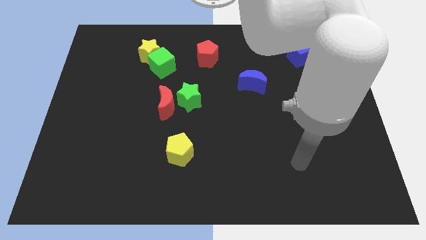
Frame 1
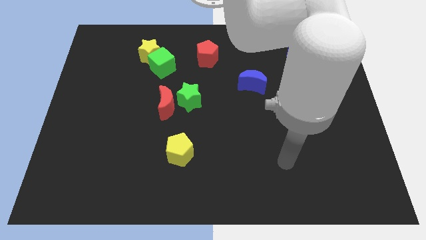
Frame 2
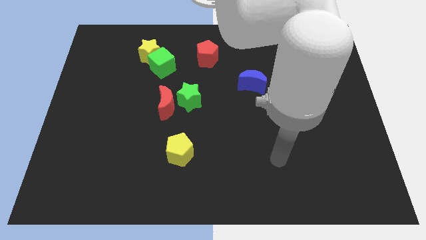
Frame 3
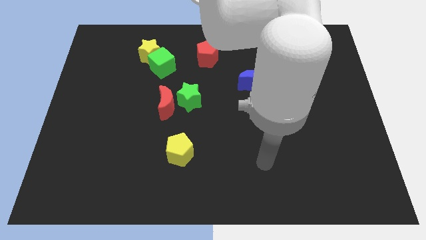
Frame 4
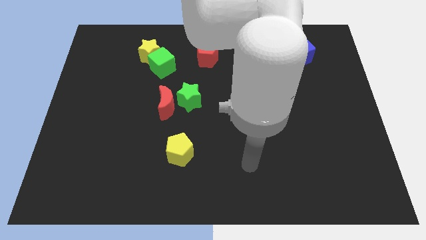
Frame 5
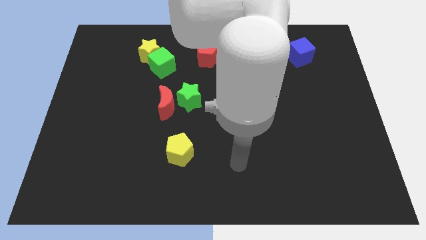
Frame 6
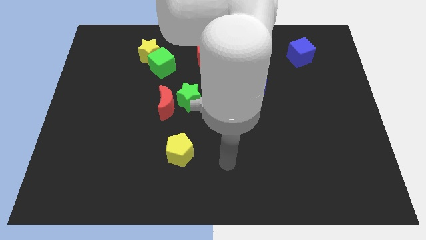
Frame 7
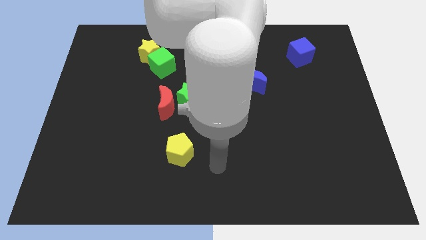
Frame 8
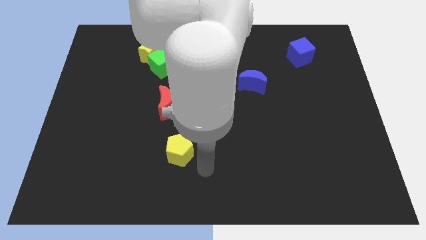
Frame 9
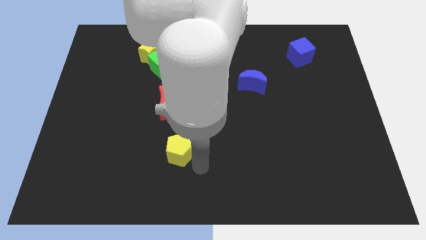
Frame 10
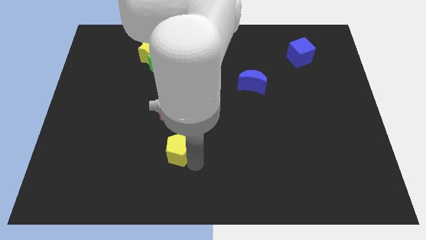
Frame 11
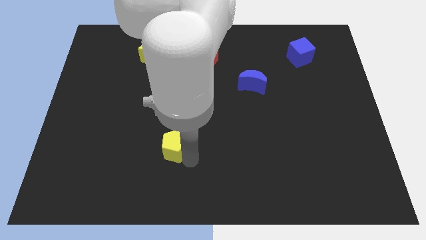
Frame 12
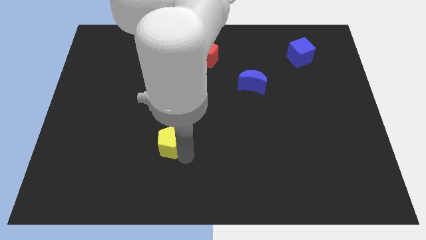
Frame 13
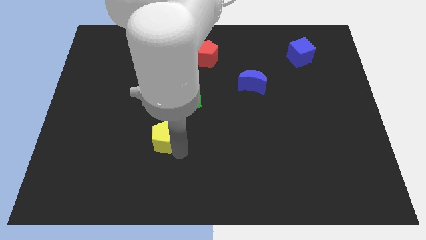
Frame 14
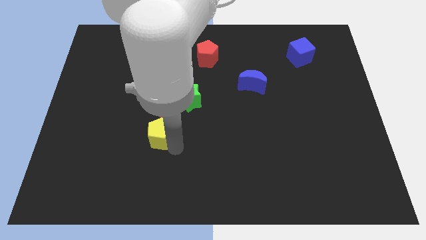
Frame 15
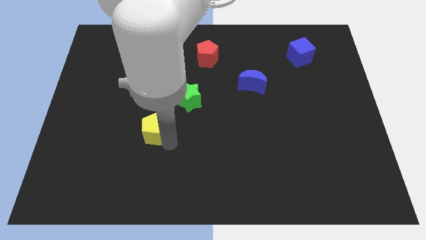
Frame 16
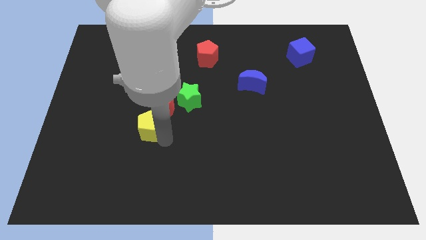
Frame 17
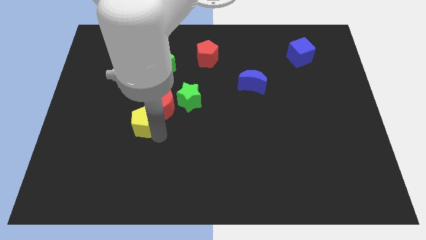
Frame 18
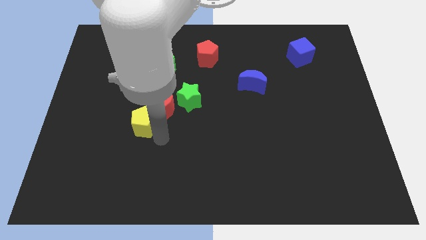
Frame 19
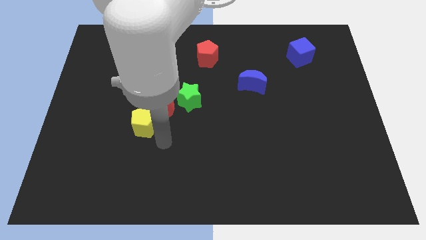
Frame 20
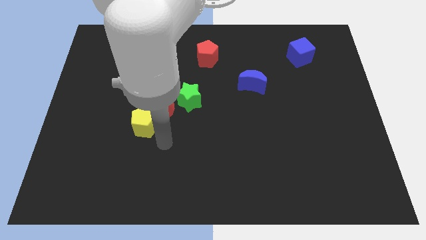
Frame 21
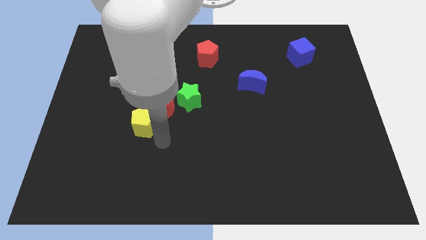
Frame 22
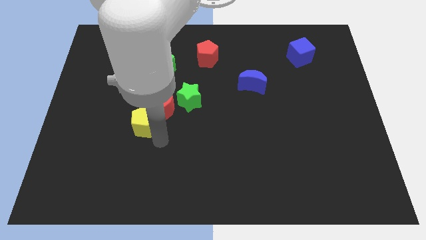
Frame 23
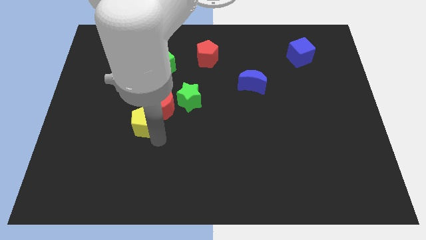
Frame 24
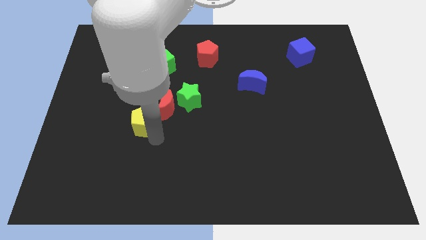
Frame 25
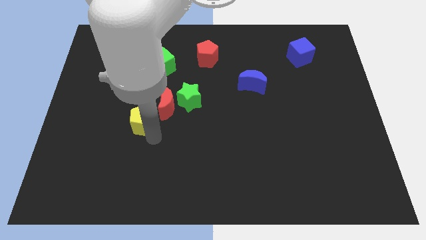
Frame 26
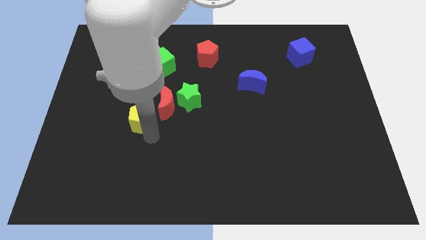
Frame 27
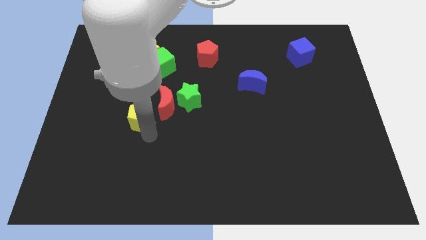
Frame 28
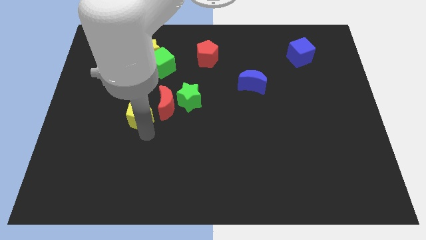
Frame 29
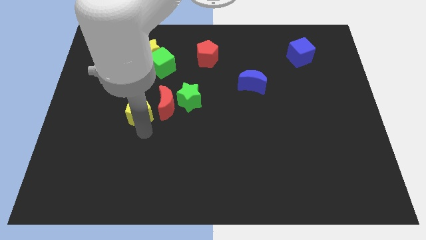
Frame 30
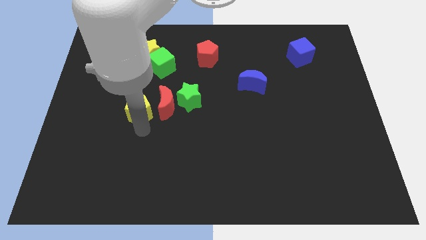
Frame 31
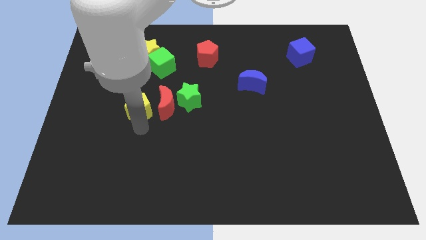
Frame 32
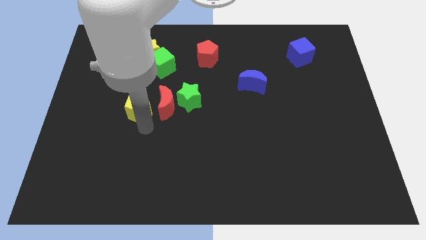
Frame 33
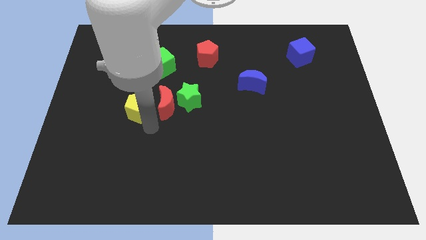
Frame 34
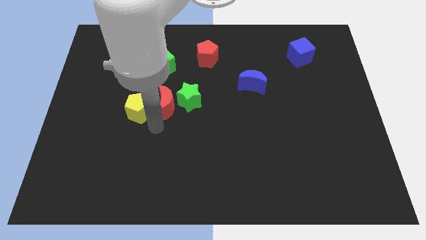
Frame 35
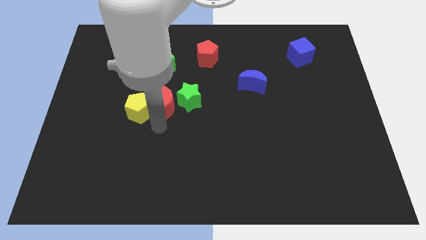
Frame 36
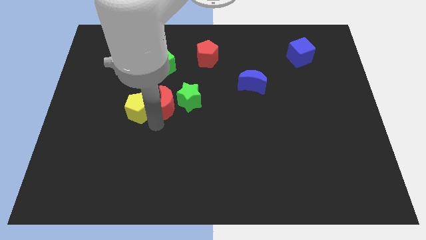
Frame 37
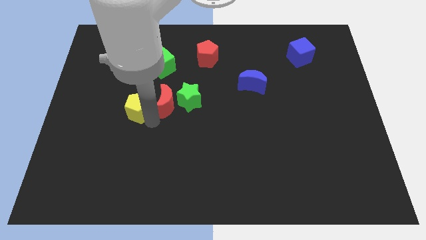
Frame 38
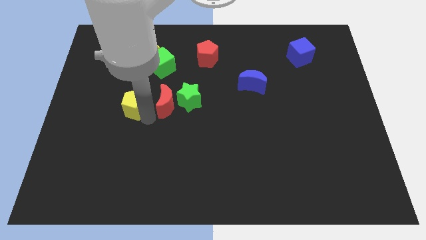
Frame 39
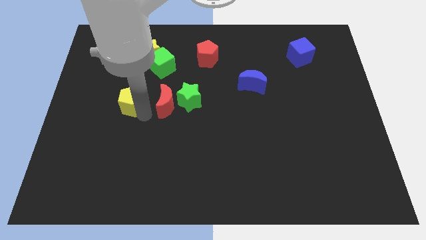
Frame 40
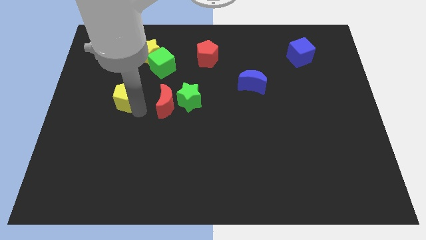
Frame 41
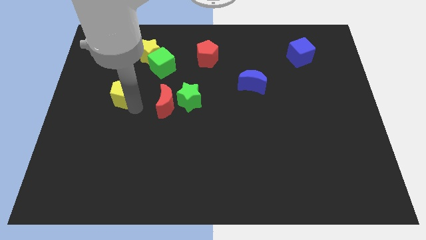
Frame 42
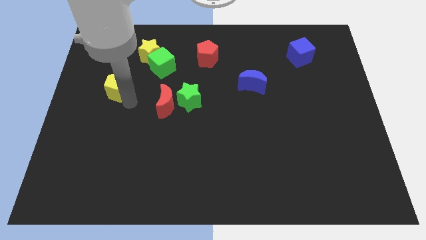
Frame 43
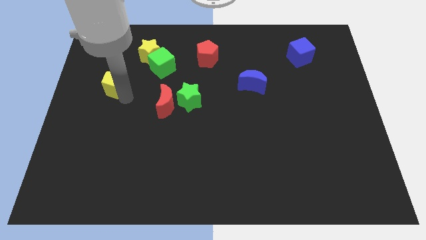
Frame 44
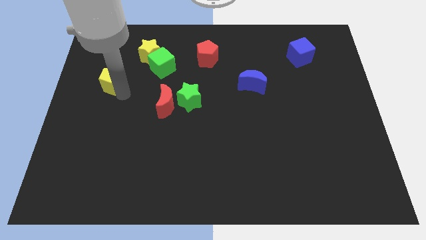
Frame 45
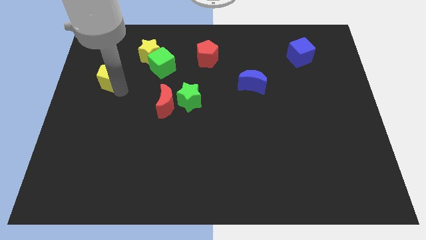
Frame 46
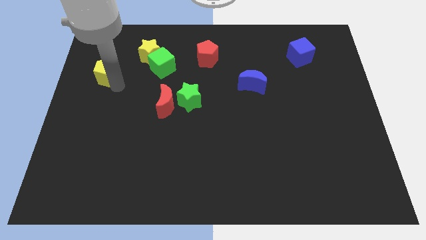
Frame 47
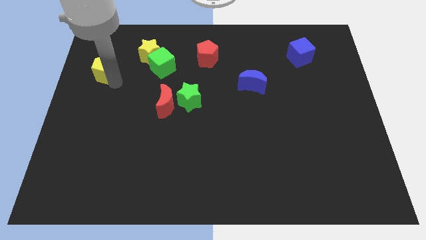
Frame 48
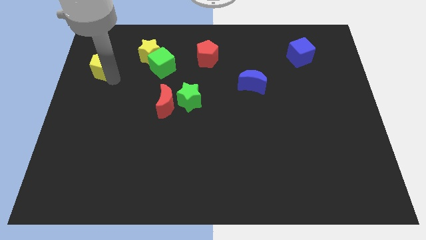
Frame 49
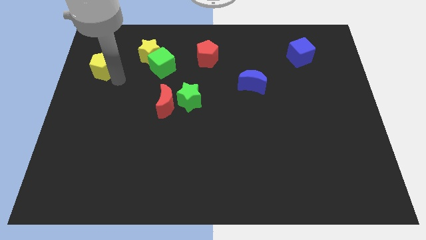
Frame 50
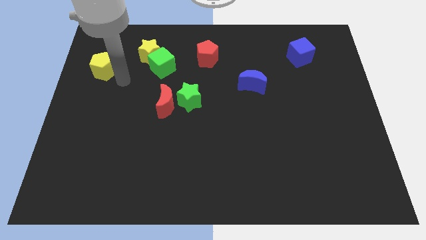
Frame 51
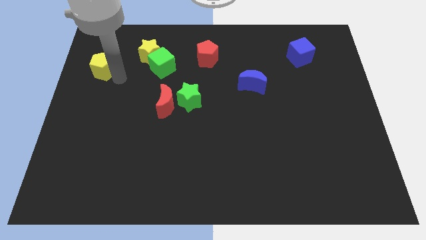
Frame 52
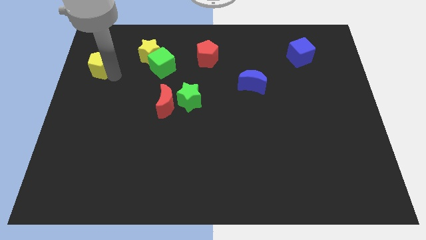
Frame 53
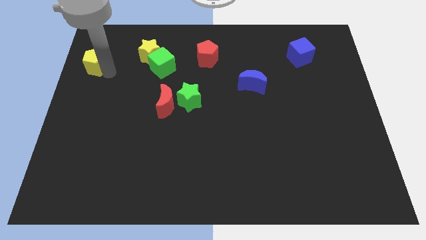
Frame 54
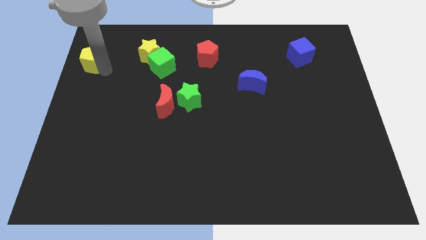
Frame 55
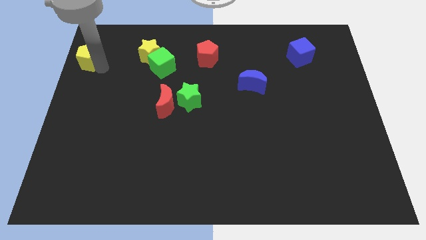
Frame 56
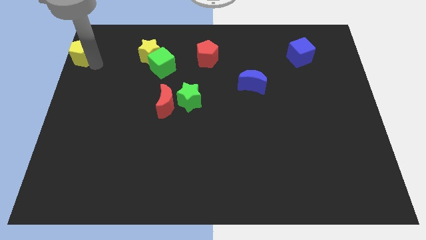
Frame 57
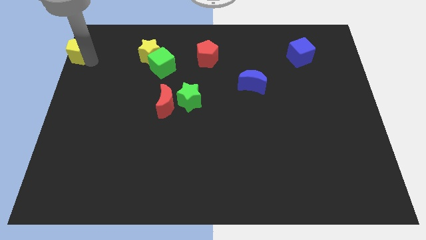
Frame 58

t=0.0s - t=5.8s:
push the yellow pentagon to the top left of the board

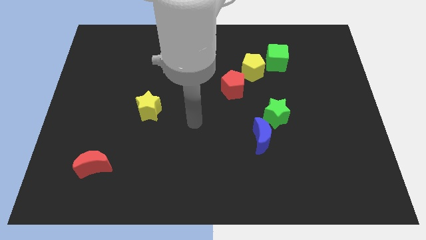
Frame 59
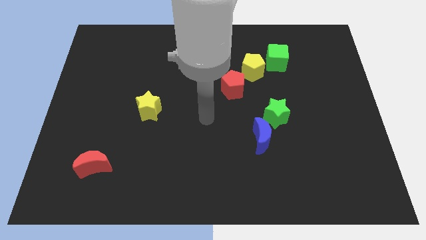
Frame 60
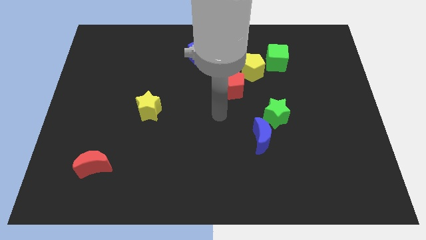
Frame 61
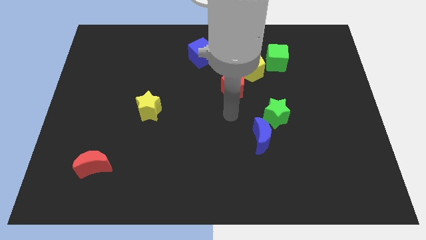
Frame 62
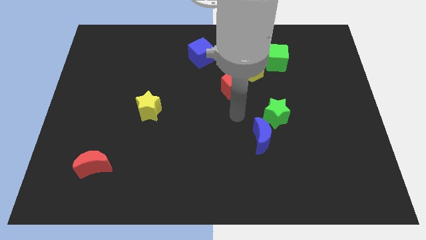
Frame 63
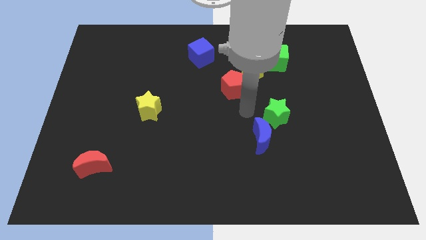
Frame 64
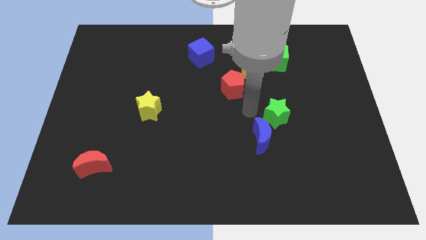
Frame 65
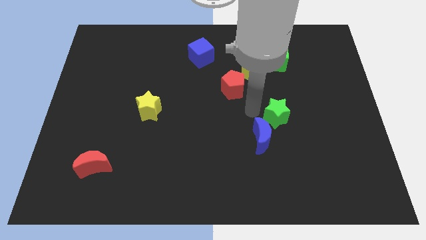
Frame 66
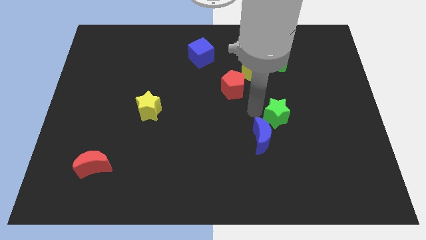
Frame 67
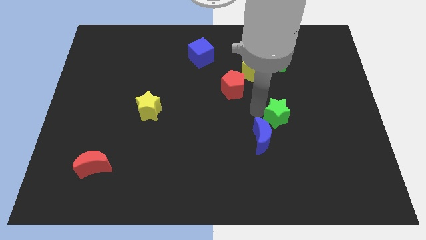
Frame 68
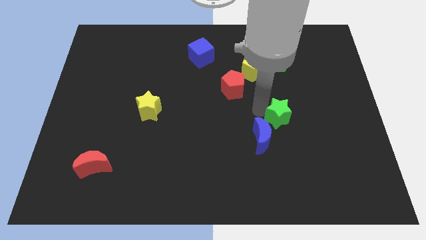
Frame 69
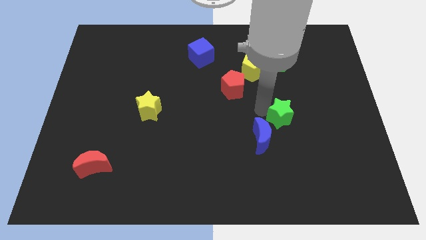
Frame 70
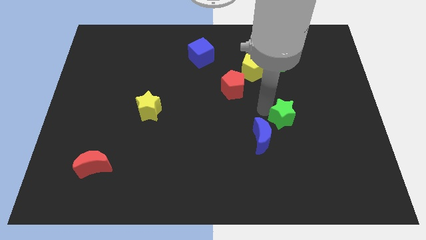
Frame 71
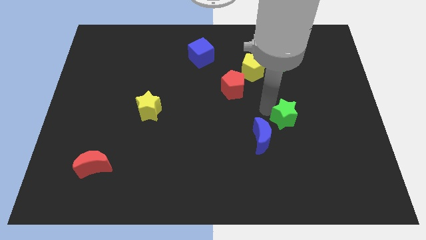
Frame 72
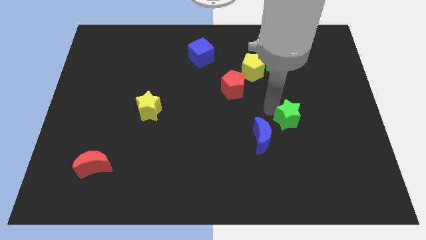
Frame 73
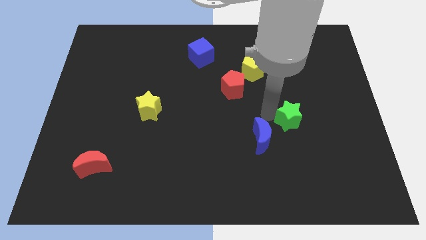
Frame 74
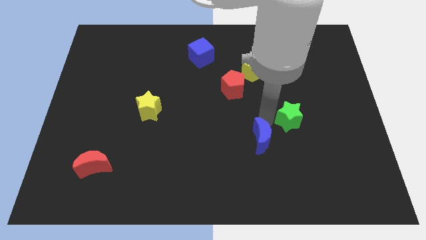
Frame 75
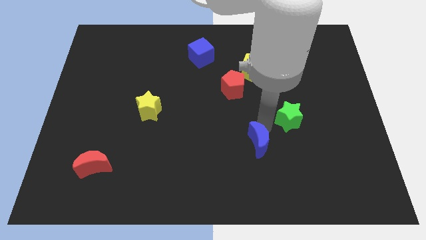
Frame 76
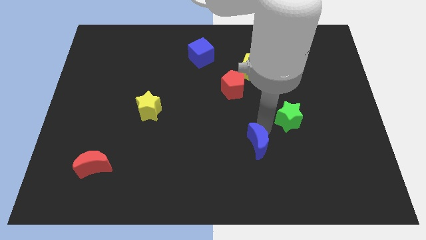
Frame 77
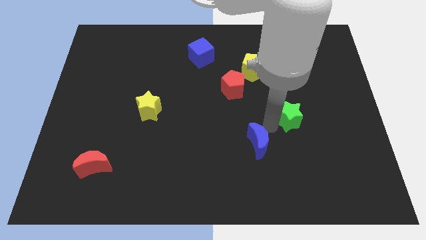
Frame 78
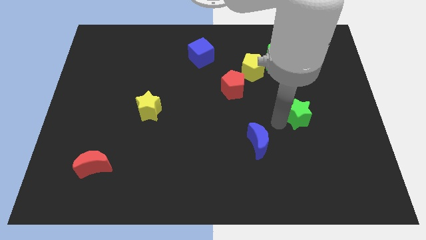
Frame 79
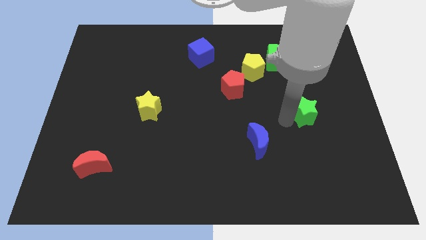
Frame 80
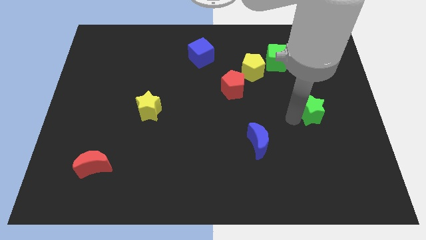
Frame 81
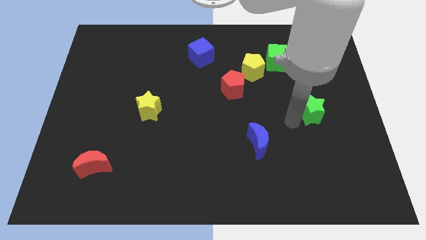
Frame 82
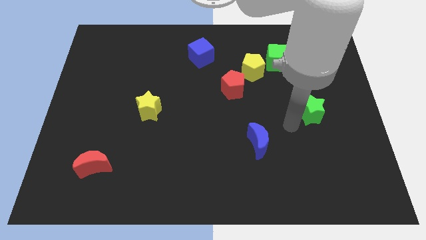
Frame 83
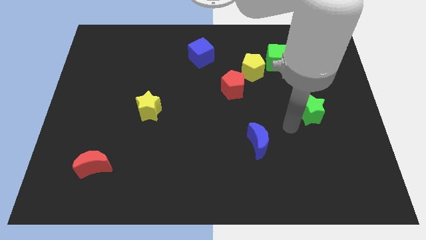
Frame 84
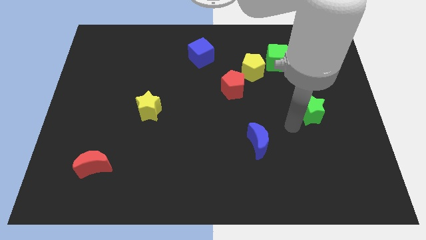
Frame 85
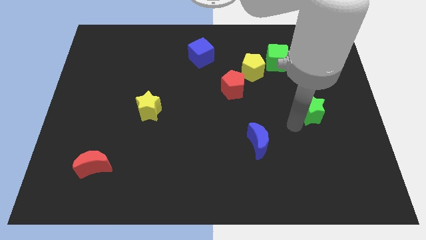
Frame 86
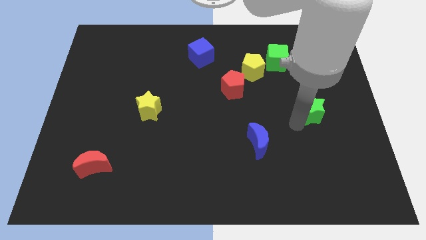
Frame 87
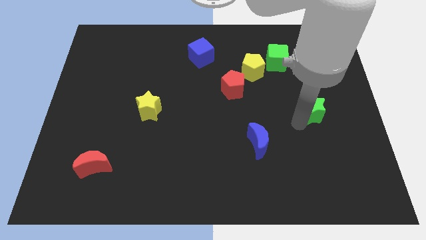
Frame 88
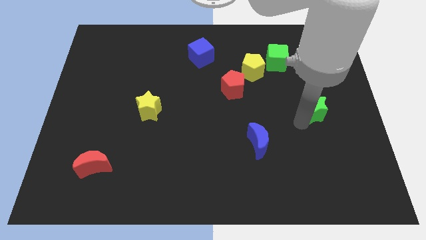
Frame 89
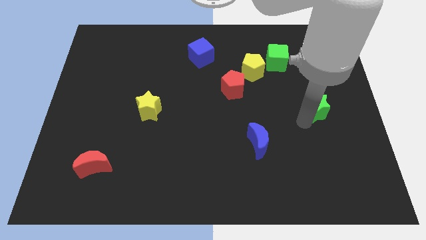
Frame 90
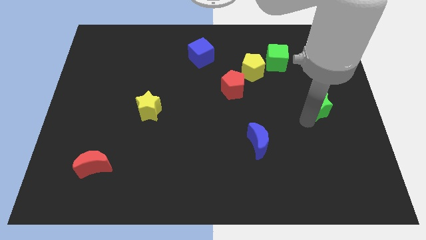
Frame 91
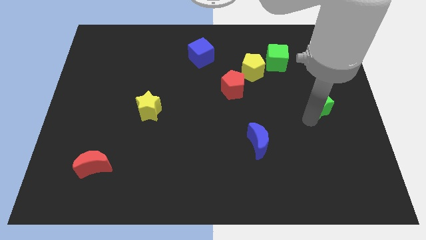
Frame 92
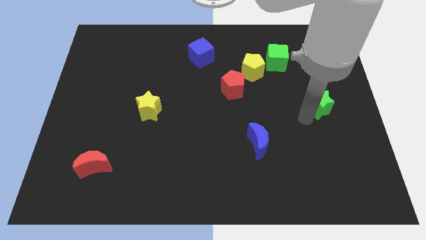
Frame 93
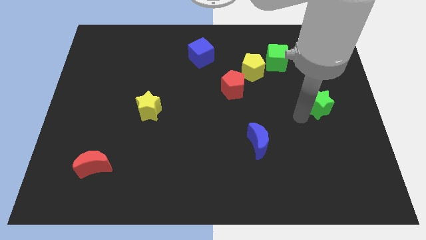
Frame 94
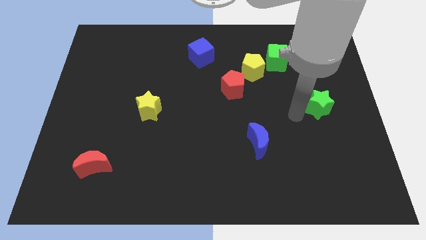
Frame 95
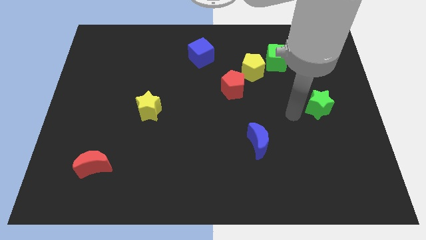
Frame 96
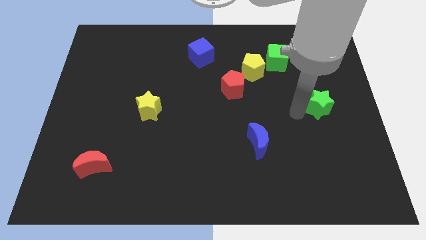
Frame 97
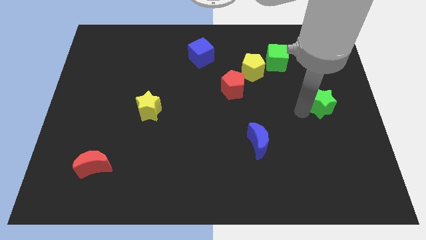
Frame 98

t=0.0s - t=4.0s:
put the green star to the right side of the board
